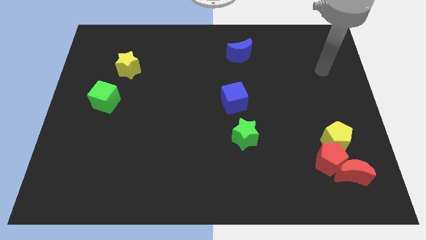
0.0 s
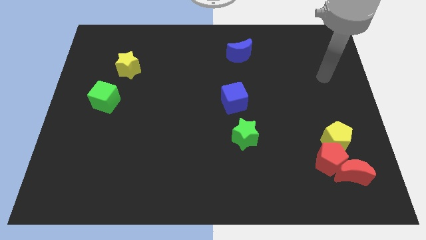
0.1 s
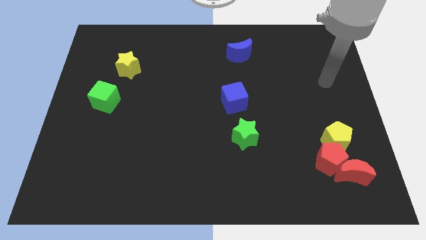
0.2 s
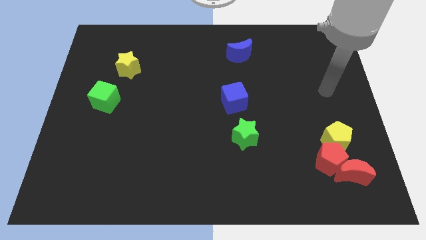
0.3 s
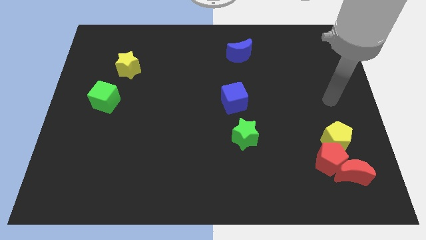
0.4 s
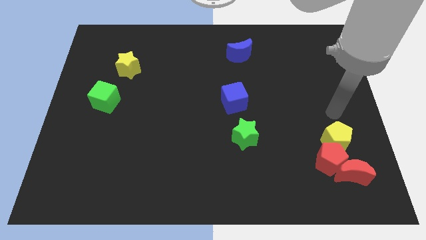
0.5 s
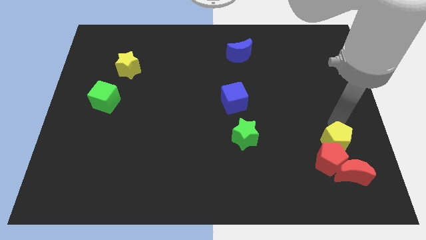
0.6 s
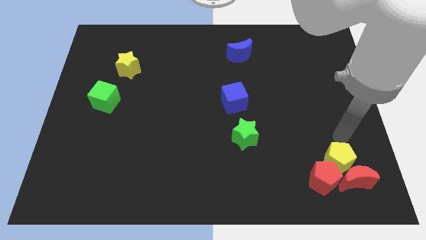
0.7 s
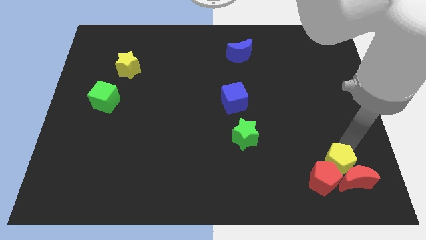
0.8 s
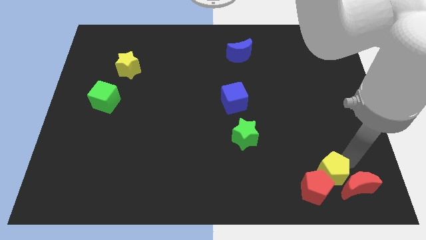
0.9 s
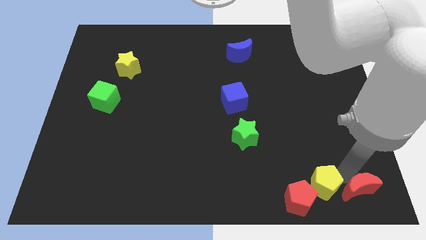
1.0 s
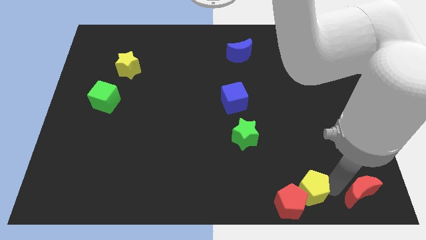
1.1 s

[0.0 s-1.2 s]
pull the red pentagon apart from the red moon and yellow pentagon

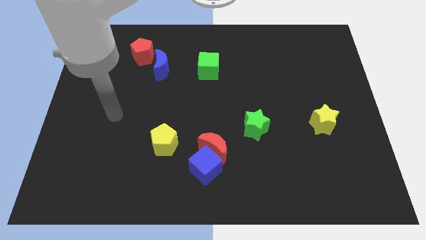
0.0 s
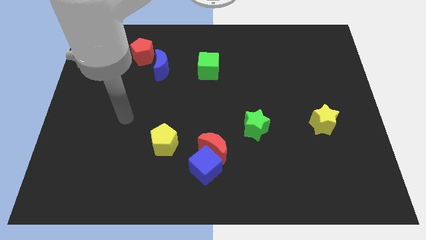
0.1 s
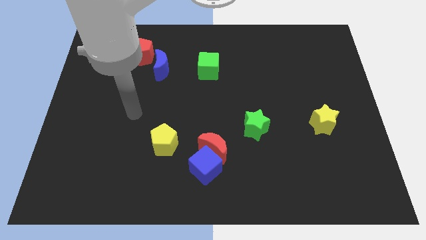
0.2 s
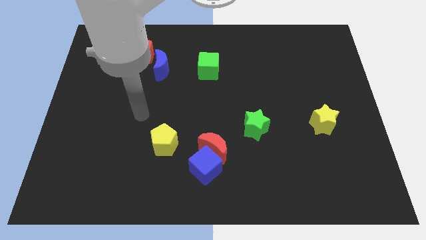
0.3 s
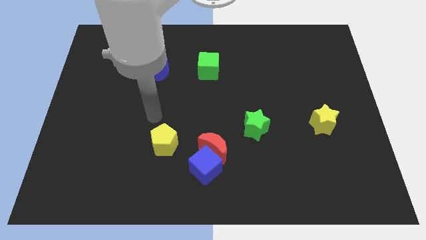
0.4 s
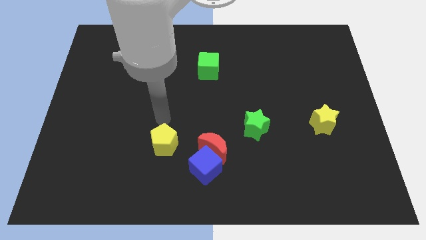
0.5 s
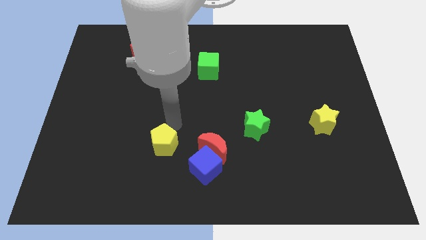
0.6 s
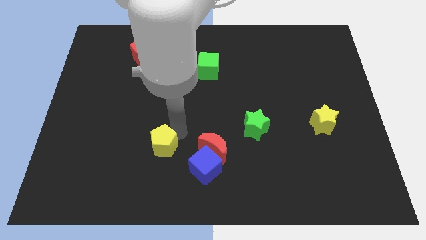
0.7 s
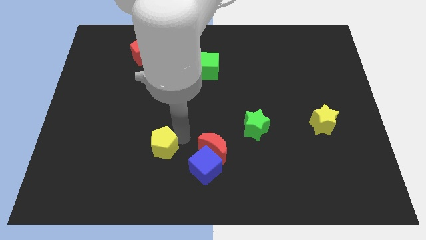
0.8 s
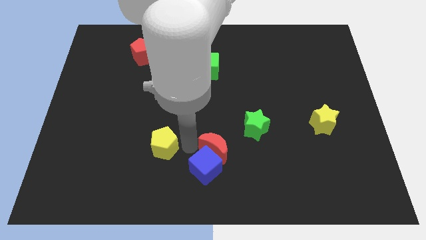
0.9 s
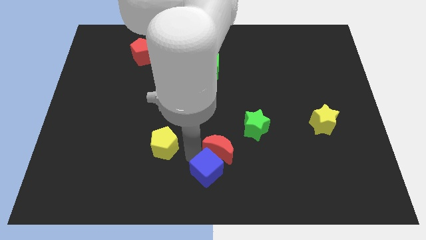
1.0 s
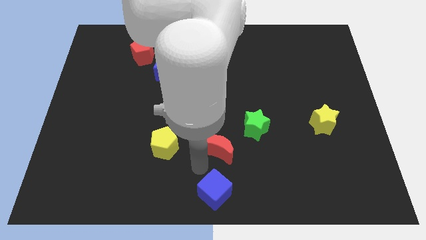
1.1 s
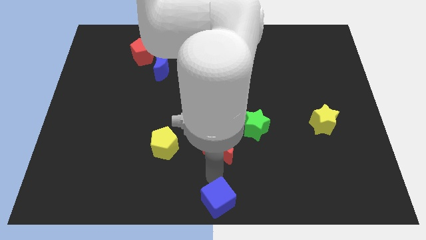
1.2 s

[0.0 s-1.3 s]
pull the red moon apart from the blue cube

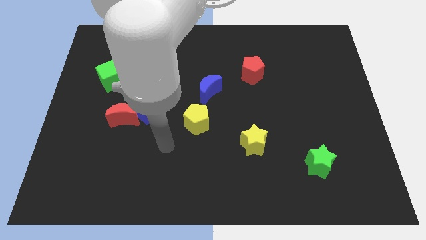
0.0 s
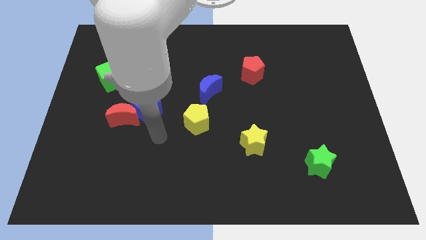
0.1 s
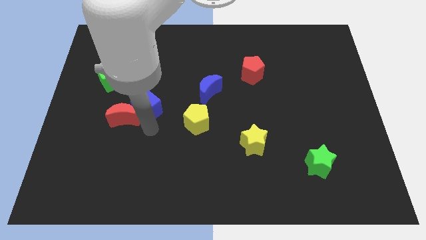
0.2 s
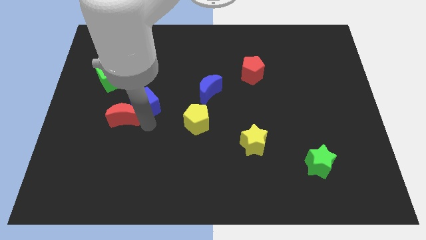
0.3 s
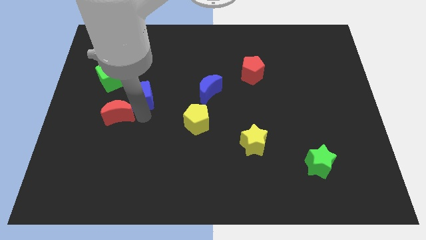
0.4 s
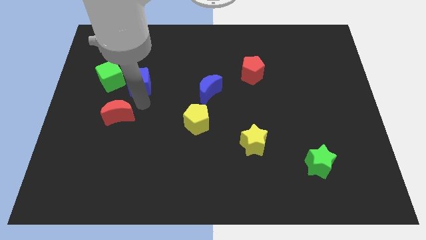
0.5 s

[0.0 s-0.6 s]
move the red moon away from the blue cube

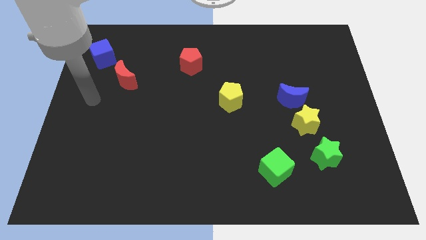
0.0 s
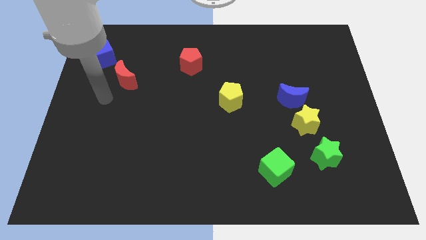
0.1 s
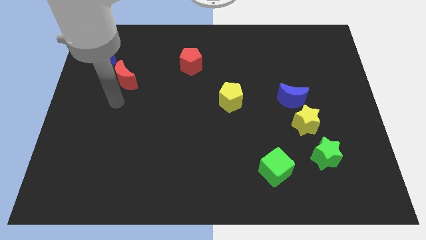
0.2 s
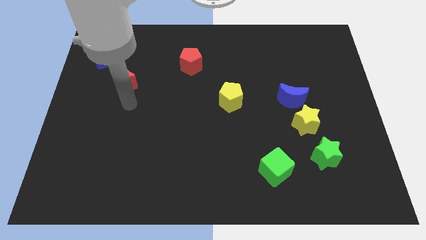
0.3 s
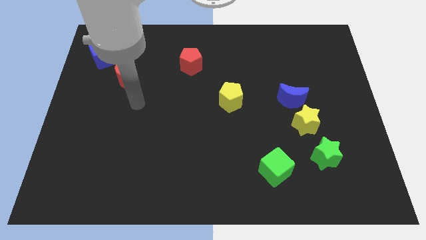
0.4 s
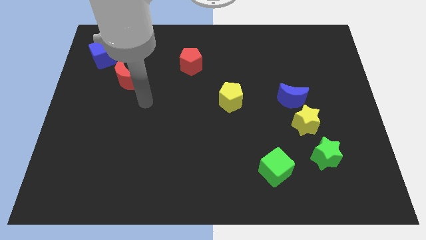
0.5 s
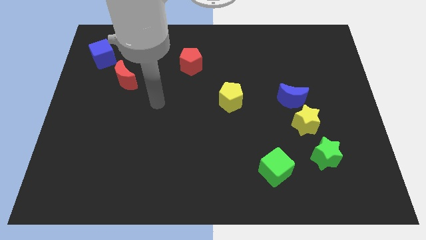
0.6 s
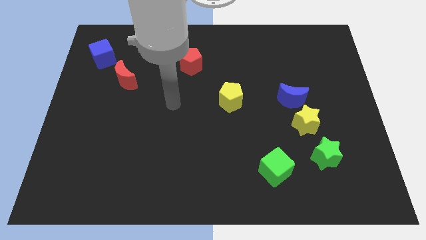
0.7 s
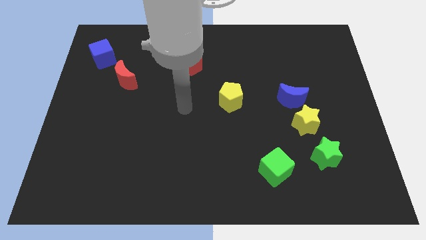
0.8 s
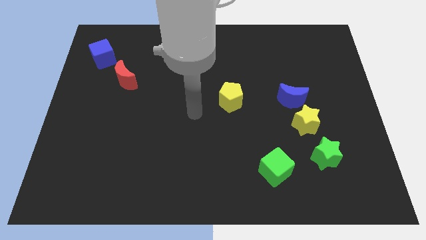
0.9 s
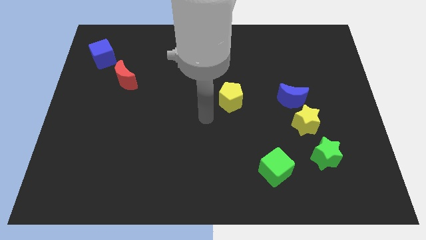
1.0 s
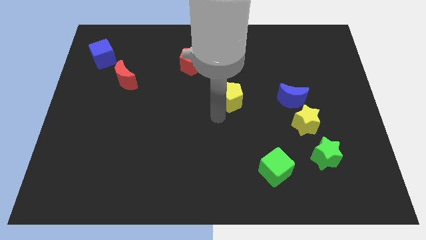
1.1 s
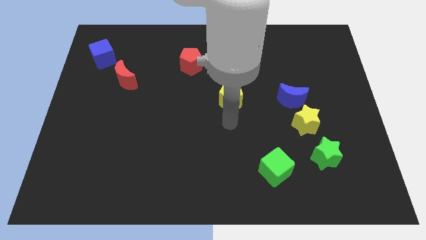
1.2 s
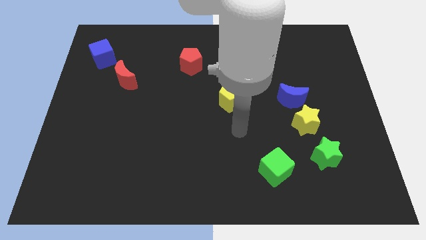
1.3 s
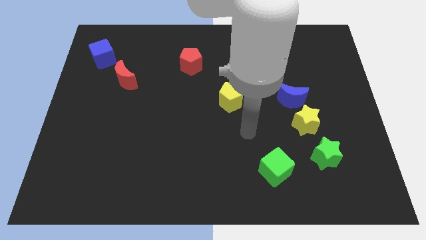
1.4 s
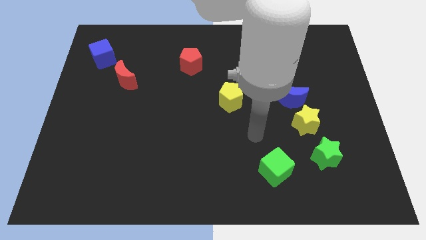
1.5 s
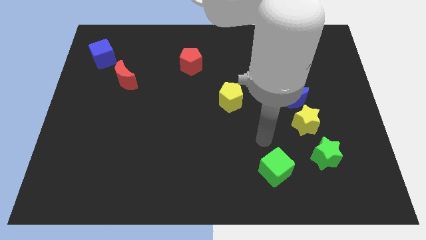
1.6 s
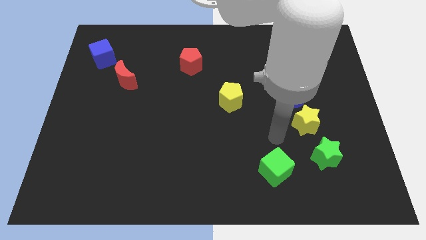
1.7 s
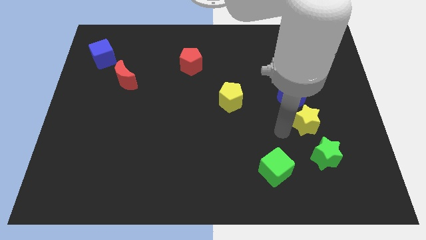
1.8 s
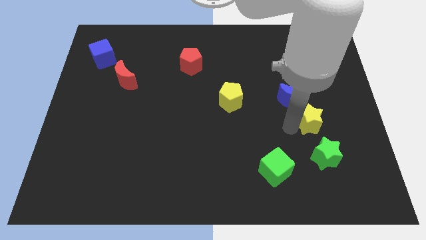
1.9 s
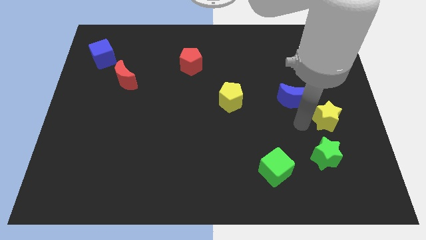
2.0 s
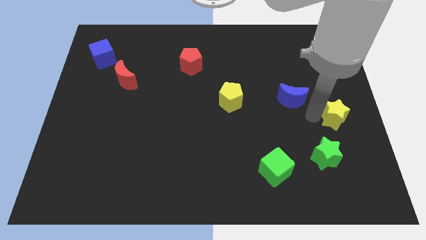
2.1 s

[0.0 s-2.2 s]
move the blue moon away from the yellow star

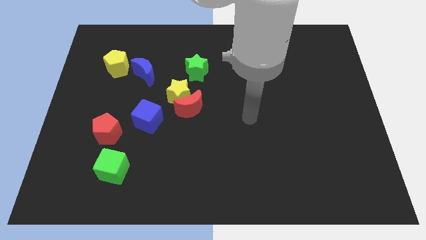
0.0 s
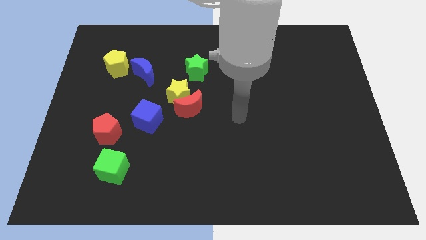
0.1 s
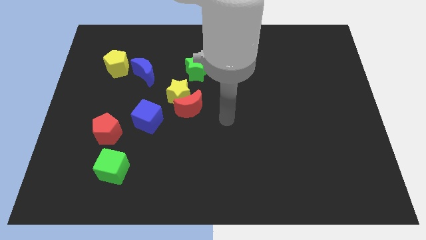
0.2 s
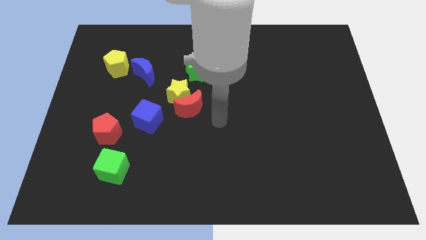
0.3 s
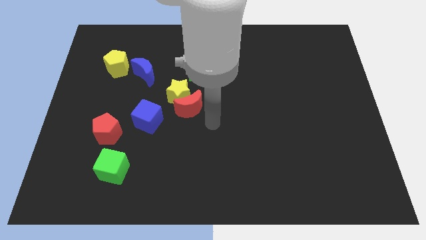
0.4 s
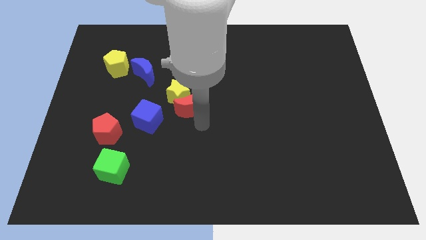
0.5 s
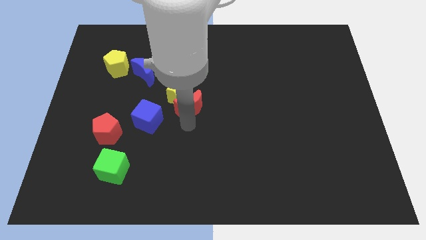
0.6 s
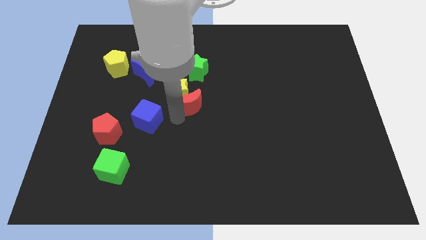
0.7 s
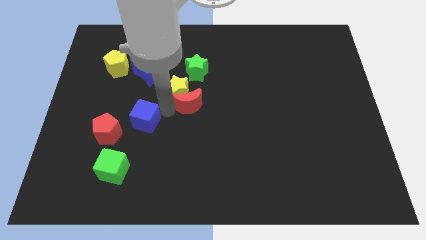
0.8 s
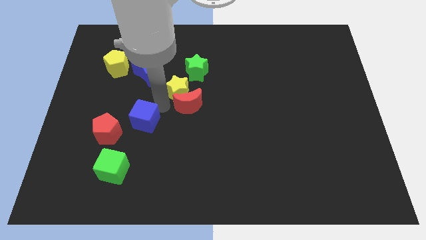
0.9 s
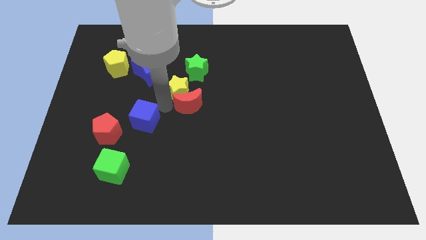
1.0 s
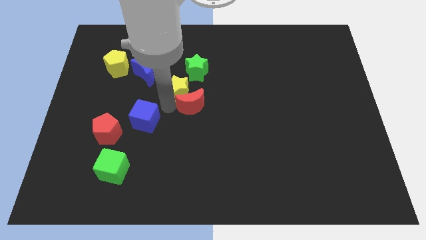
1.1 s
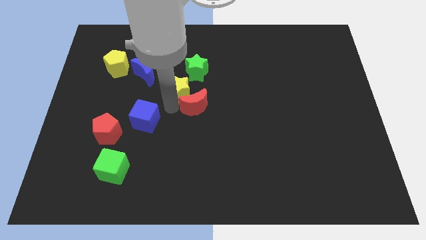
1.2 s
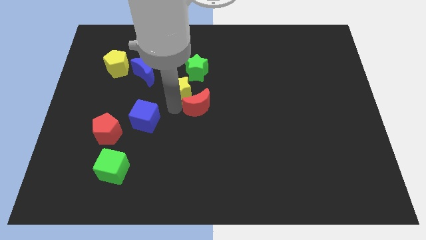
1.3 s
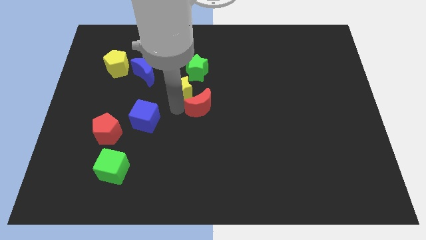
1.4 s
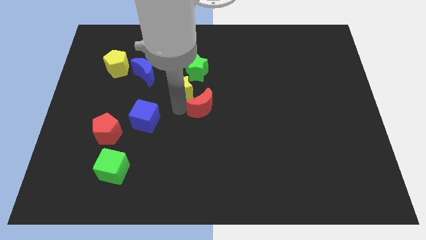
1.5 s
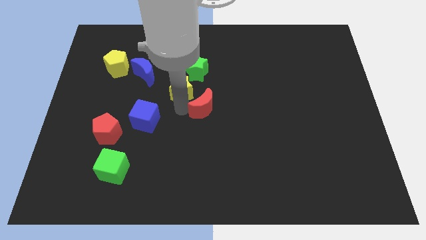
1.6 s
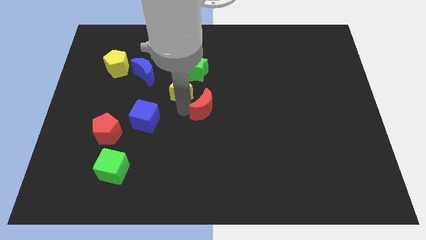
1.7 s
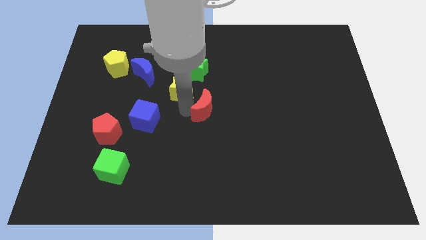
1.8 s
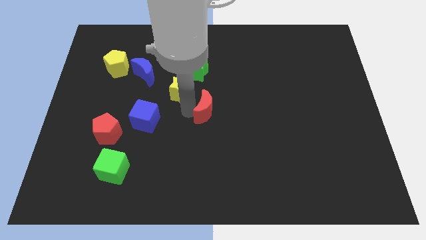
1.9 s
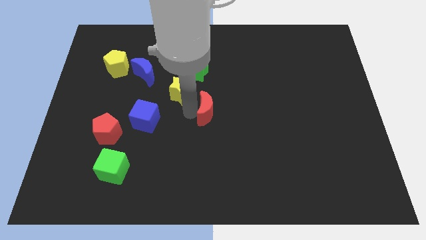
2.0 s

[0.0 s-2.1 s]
pull the red moon apart from the yellow star and blue cube

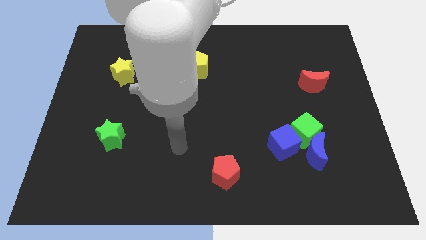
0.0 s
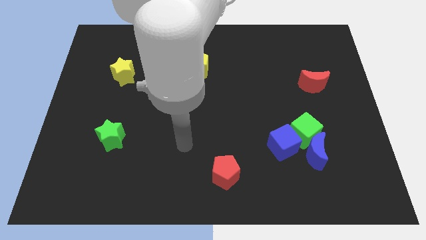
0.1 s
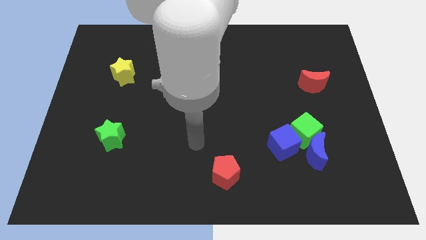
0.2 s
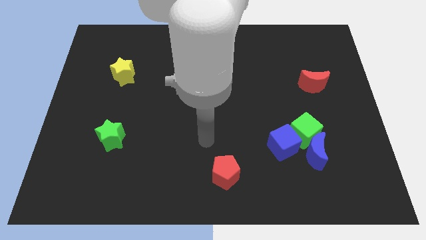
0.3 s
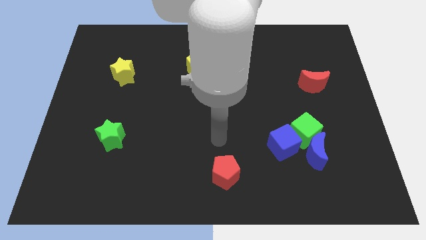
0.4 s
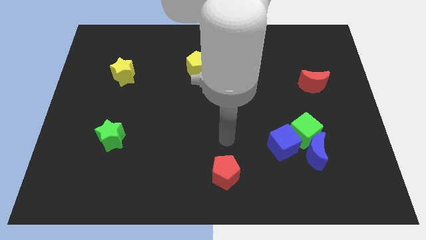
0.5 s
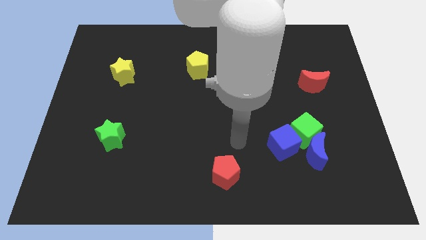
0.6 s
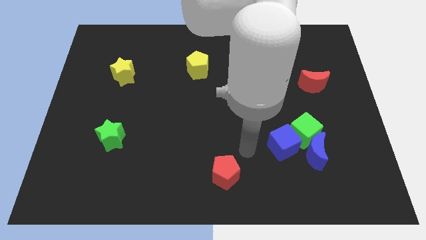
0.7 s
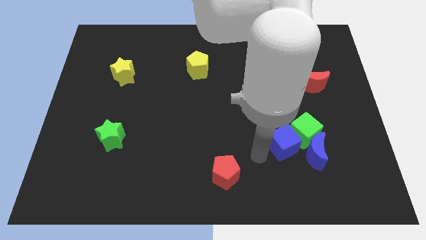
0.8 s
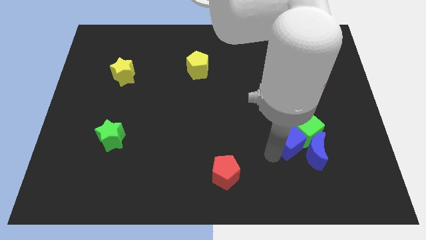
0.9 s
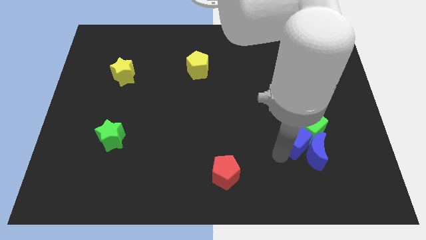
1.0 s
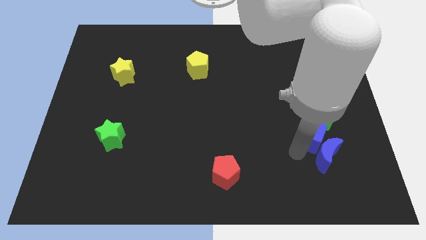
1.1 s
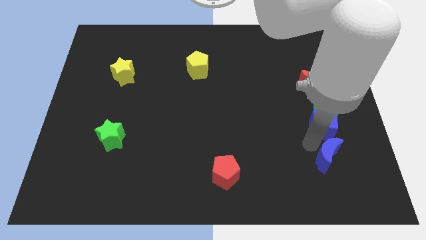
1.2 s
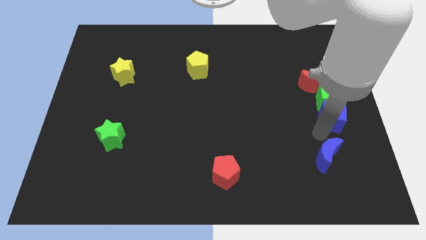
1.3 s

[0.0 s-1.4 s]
move the green cube away from the blue moon and blue cube

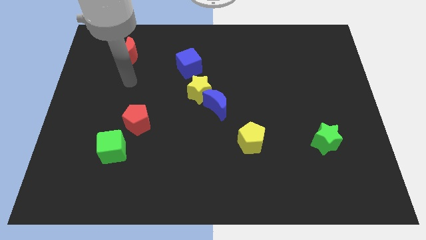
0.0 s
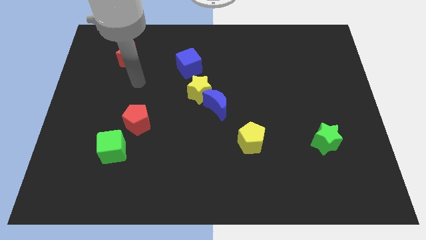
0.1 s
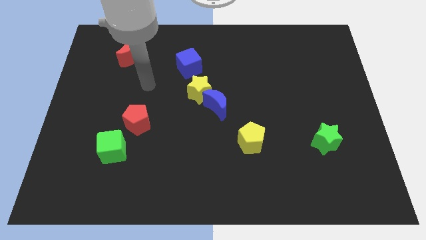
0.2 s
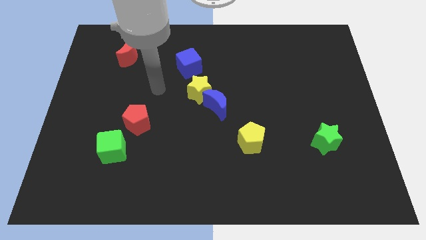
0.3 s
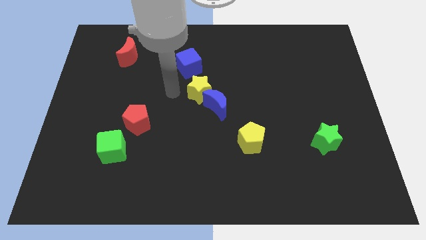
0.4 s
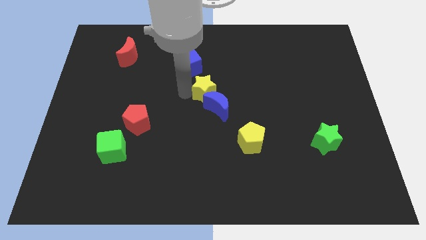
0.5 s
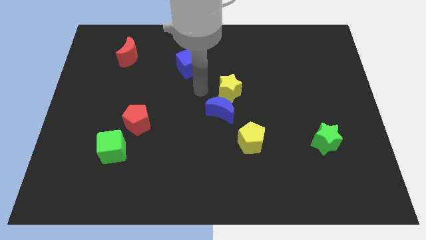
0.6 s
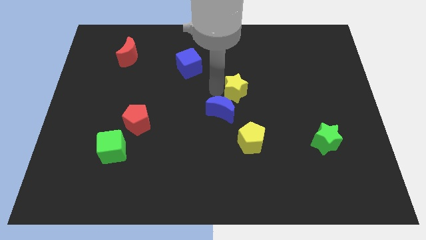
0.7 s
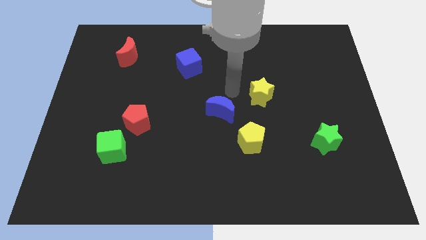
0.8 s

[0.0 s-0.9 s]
pull the blue moon apart from the yellow star
